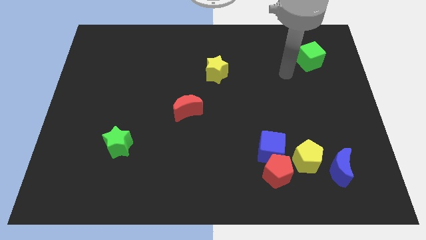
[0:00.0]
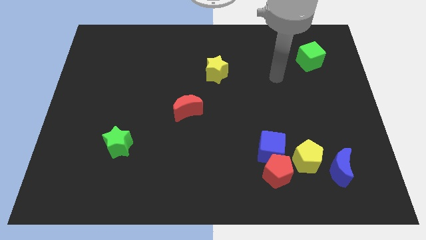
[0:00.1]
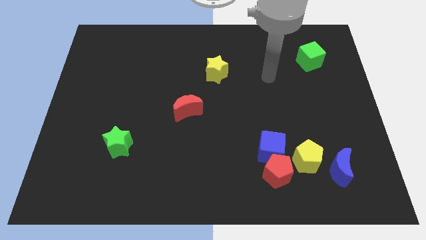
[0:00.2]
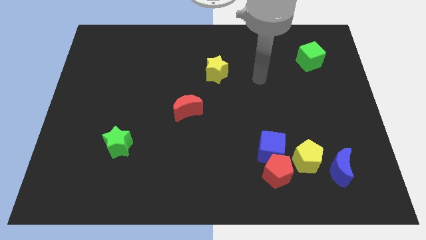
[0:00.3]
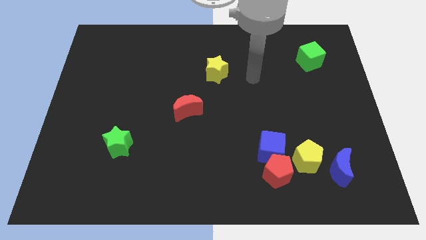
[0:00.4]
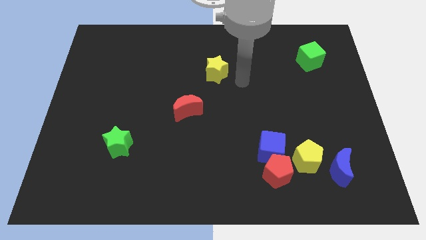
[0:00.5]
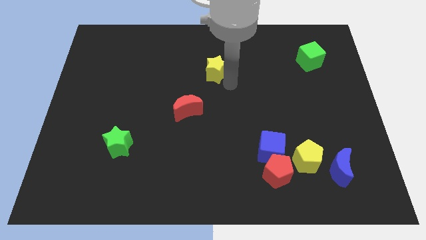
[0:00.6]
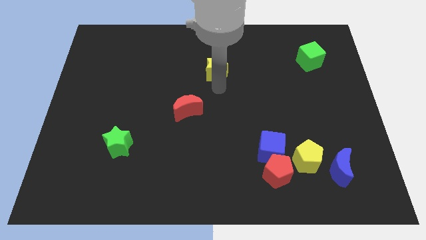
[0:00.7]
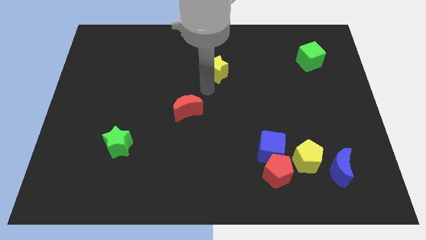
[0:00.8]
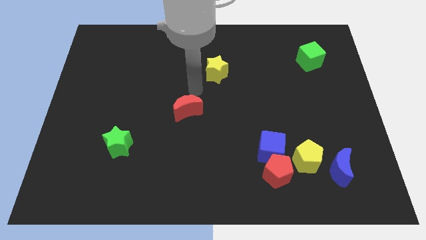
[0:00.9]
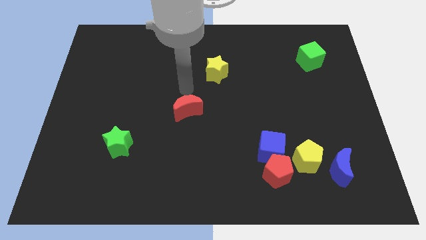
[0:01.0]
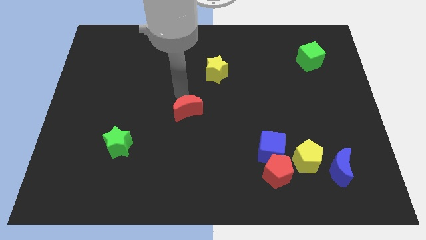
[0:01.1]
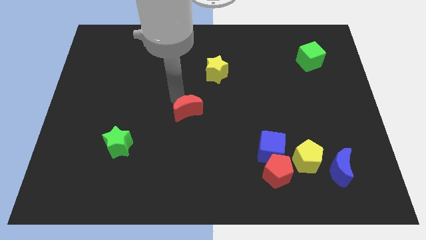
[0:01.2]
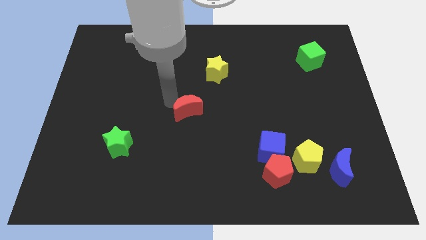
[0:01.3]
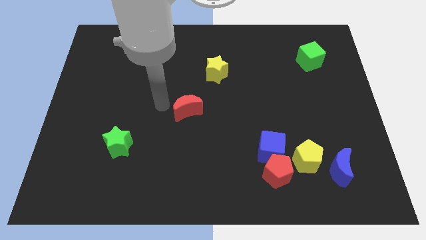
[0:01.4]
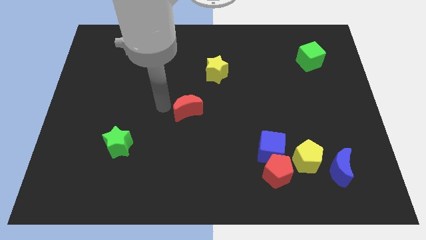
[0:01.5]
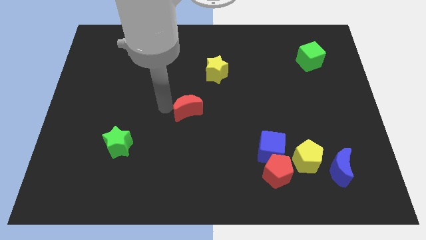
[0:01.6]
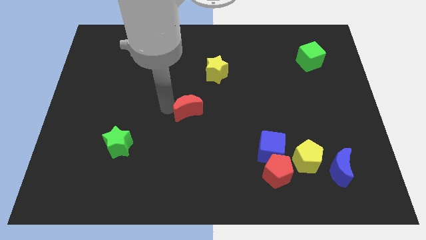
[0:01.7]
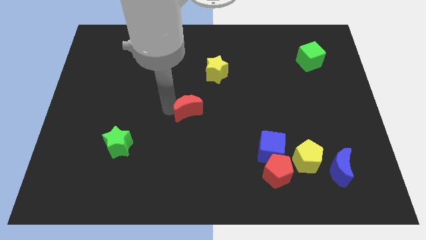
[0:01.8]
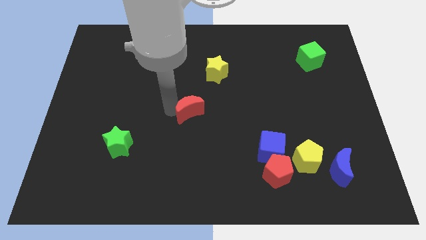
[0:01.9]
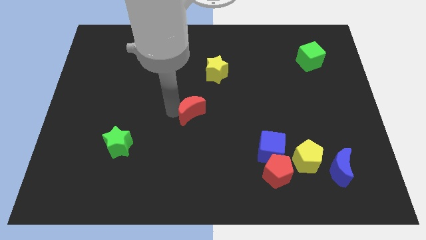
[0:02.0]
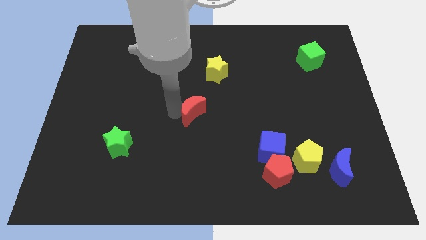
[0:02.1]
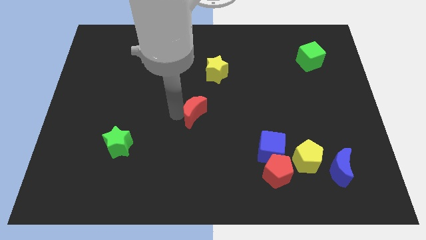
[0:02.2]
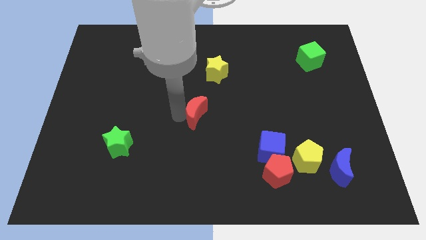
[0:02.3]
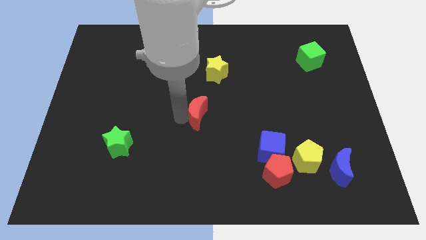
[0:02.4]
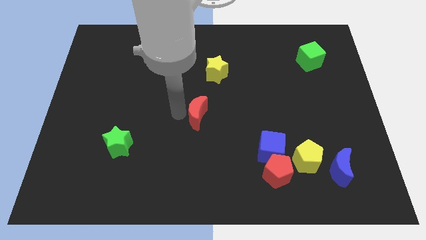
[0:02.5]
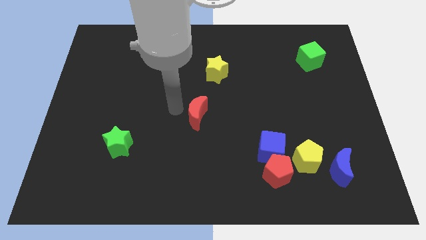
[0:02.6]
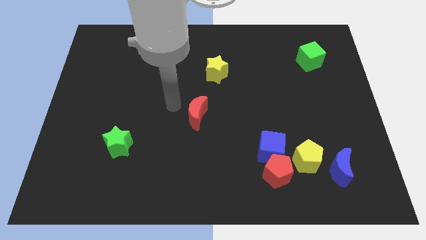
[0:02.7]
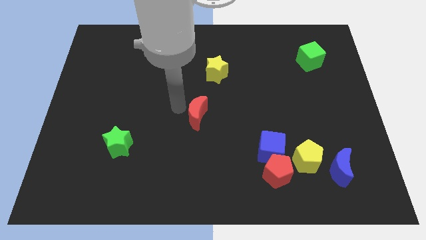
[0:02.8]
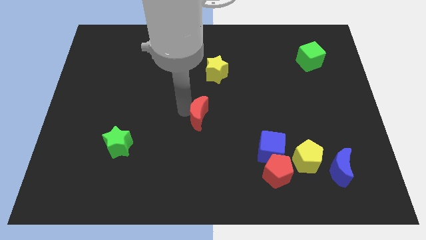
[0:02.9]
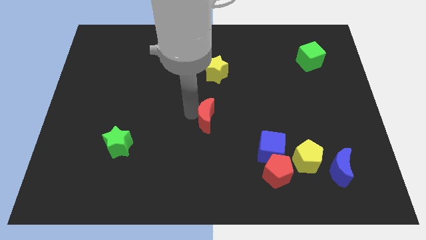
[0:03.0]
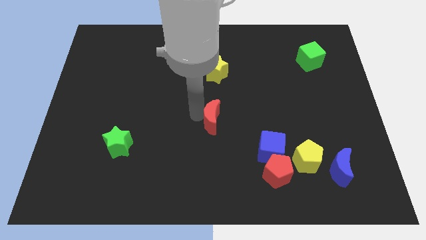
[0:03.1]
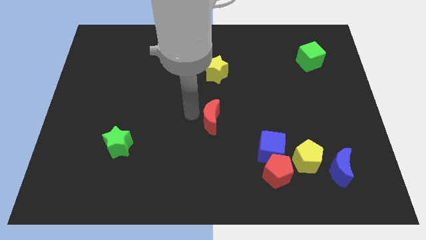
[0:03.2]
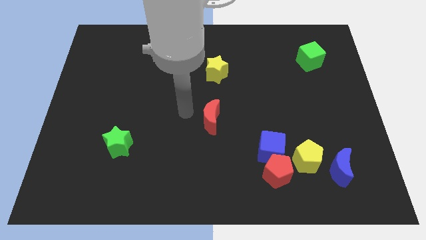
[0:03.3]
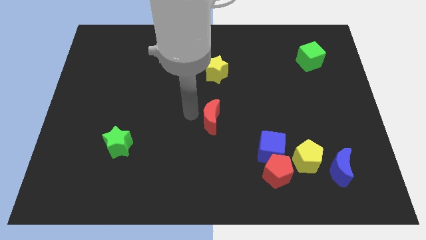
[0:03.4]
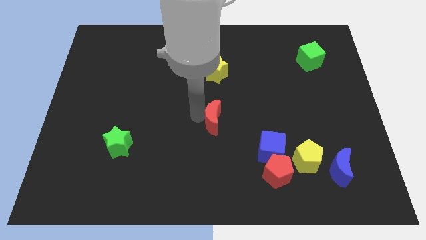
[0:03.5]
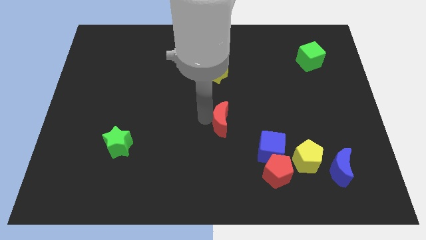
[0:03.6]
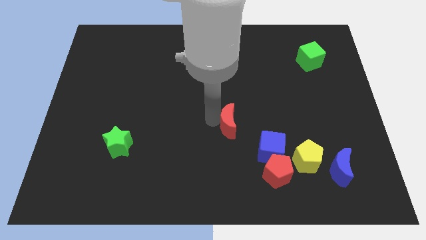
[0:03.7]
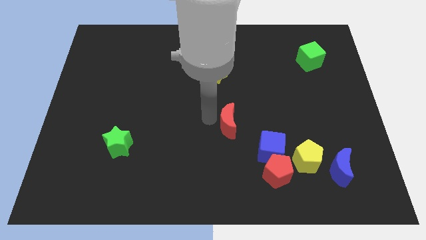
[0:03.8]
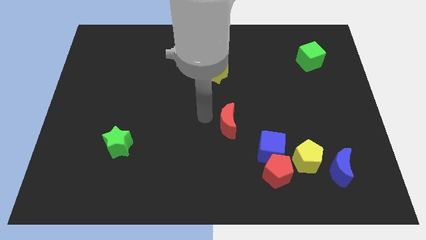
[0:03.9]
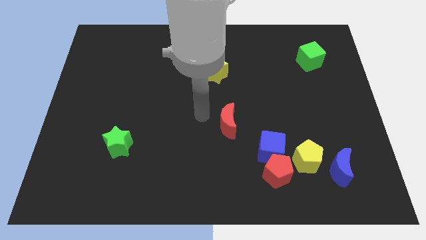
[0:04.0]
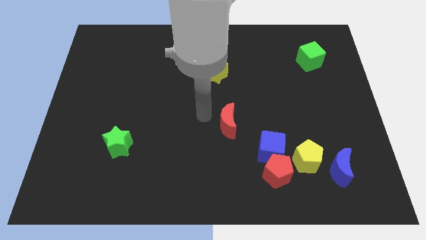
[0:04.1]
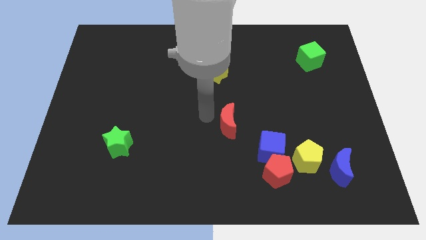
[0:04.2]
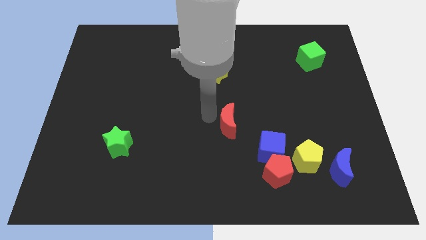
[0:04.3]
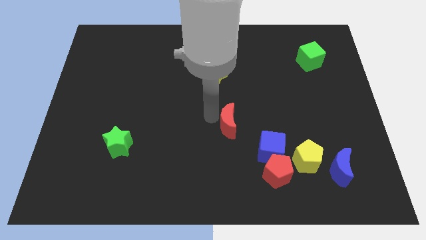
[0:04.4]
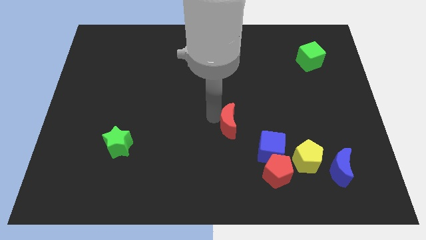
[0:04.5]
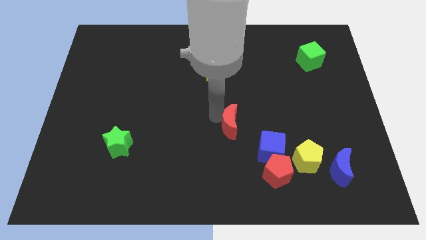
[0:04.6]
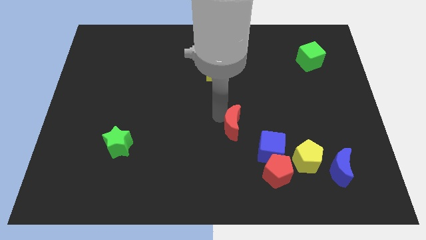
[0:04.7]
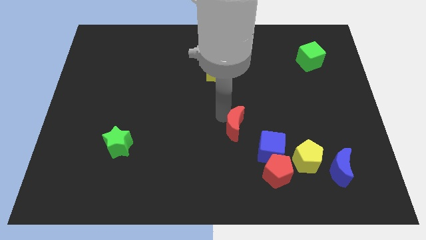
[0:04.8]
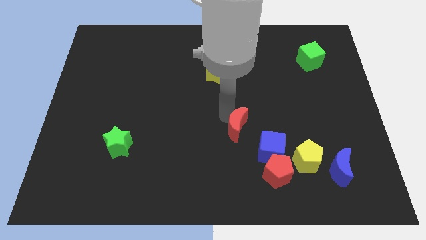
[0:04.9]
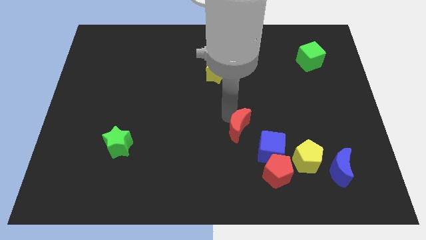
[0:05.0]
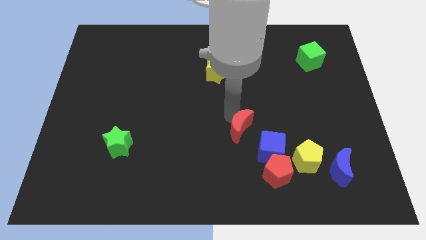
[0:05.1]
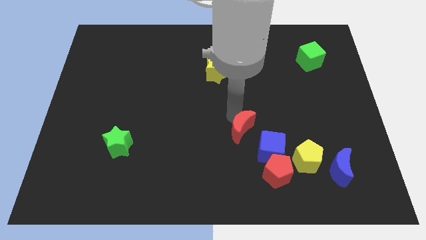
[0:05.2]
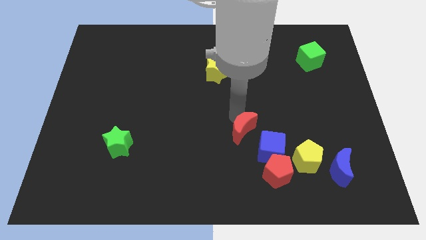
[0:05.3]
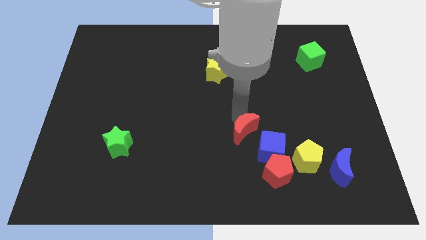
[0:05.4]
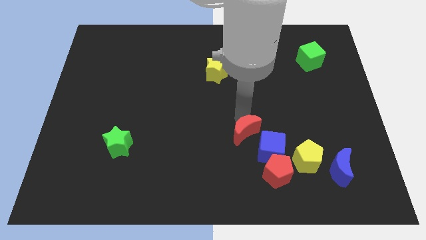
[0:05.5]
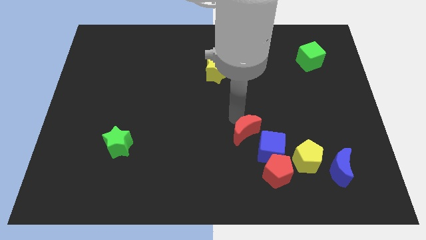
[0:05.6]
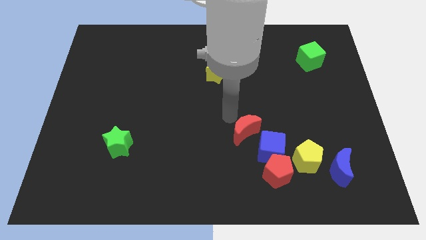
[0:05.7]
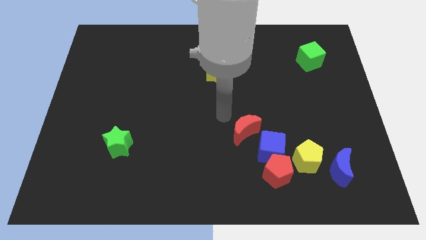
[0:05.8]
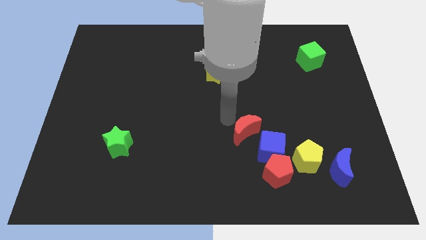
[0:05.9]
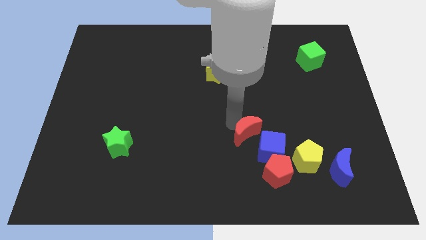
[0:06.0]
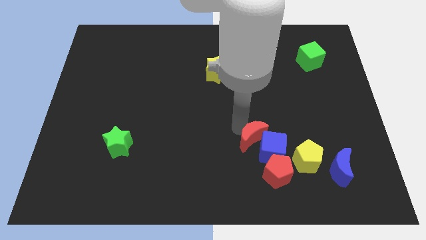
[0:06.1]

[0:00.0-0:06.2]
slide the red moon to the blue cube

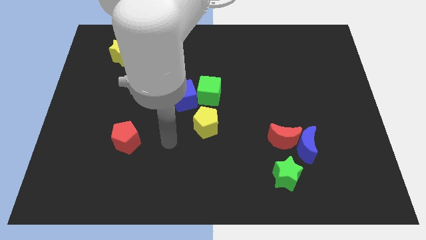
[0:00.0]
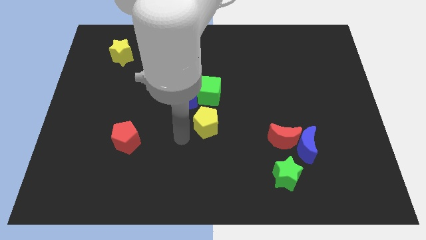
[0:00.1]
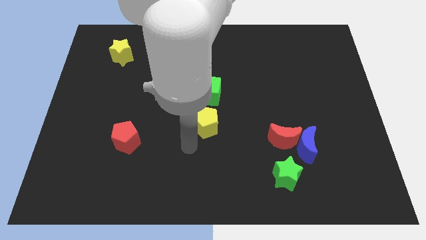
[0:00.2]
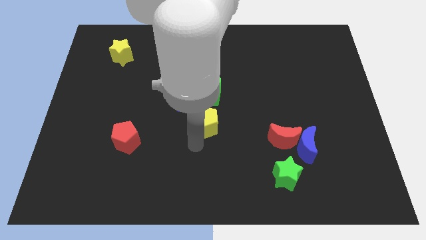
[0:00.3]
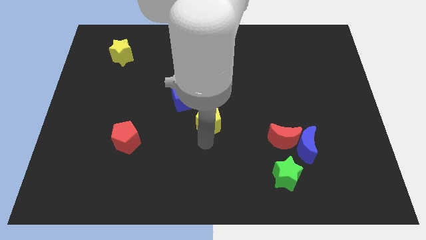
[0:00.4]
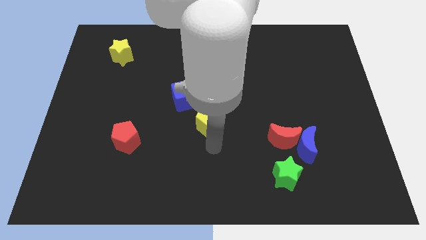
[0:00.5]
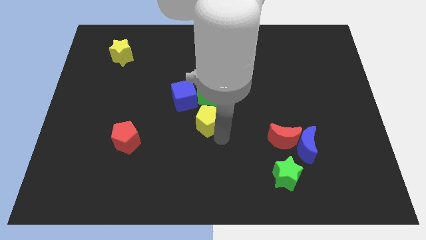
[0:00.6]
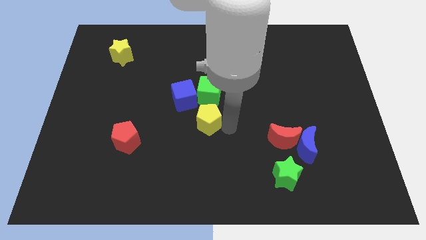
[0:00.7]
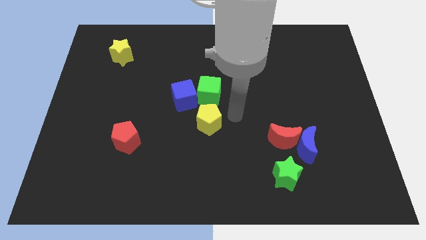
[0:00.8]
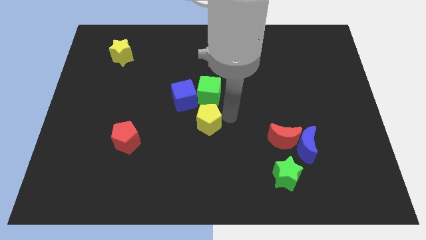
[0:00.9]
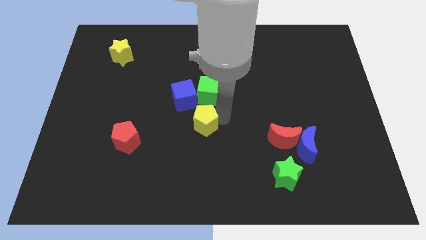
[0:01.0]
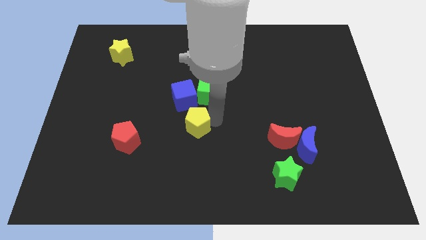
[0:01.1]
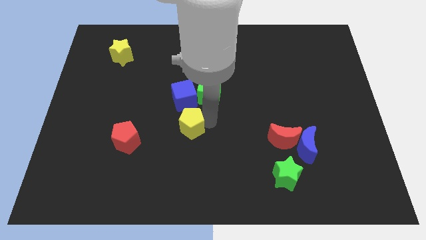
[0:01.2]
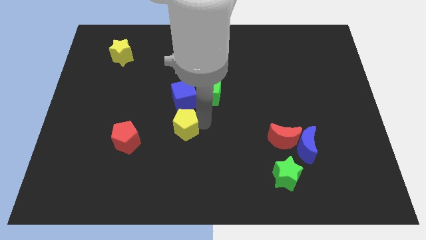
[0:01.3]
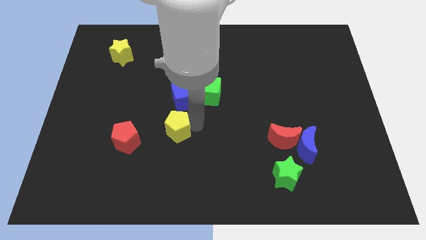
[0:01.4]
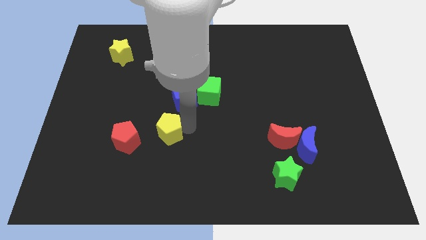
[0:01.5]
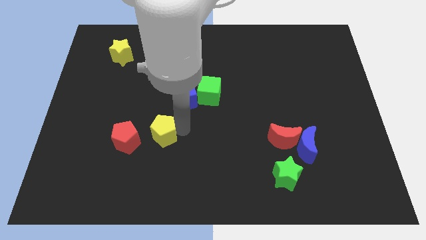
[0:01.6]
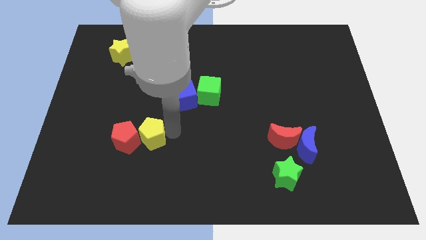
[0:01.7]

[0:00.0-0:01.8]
put the yellow pentagon to the red pentagon

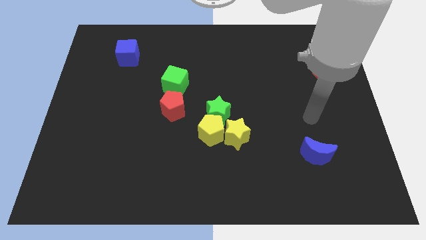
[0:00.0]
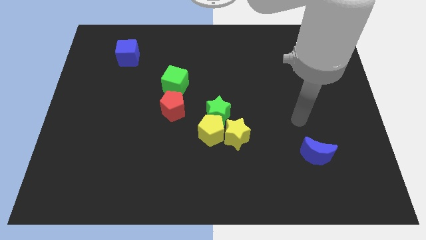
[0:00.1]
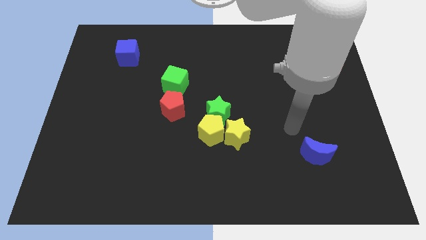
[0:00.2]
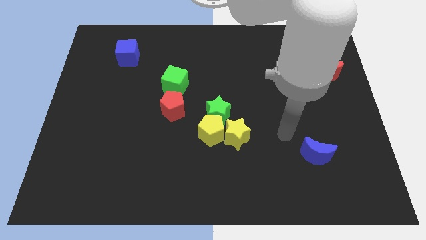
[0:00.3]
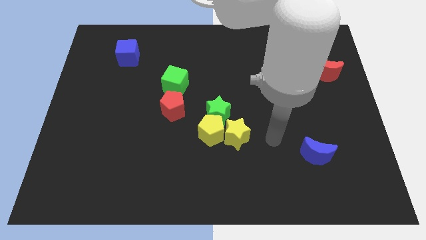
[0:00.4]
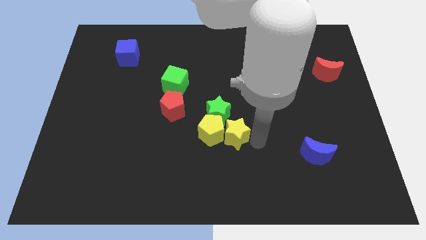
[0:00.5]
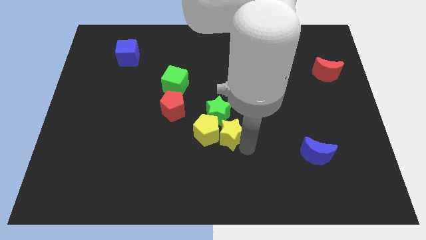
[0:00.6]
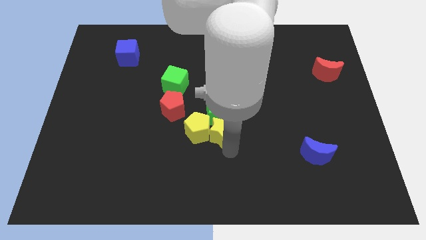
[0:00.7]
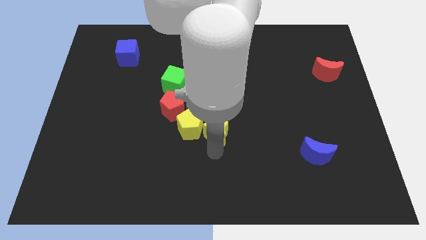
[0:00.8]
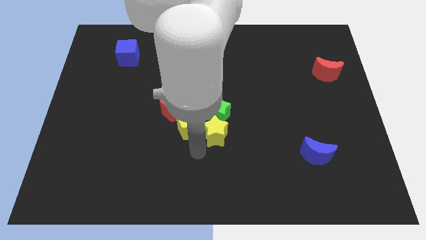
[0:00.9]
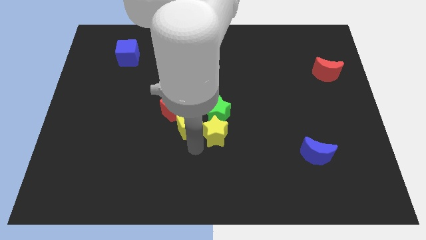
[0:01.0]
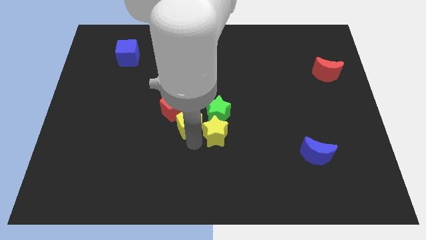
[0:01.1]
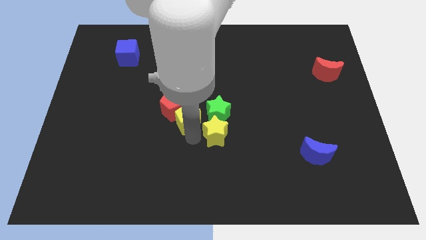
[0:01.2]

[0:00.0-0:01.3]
push the yellow pentagon next to the red pentagon
